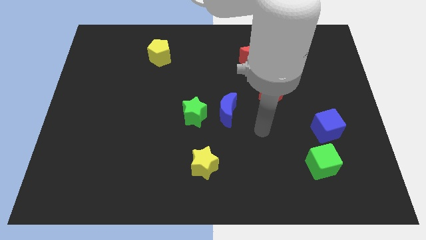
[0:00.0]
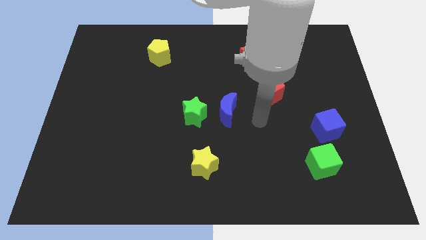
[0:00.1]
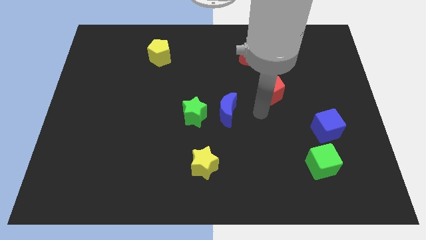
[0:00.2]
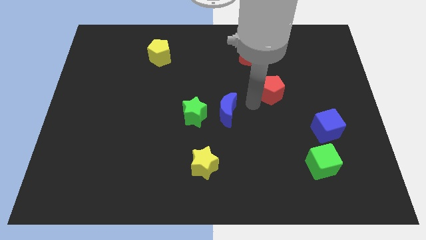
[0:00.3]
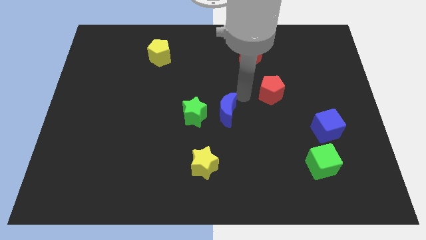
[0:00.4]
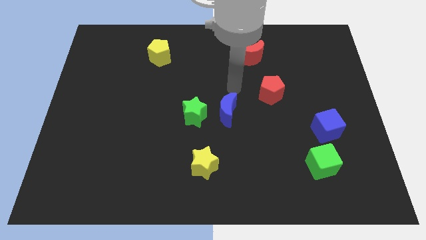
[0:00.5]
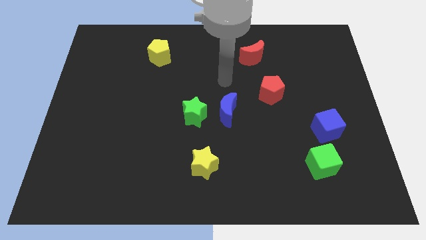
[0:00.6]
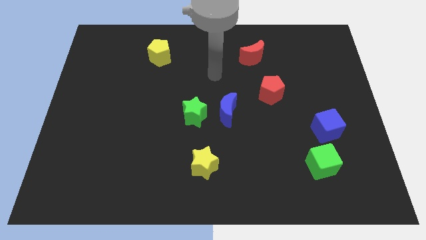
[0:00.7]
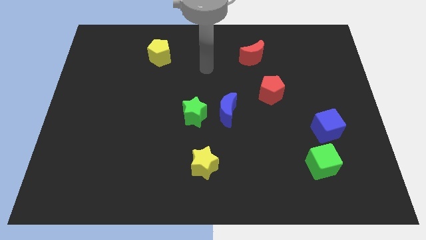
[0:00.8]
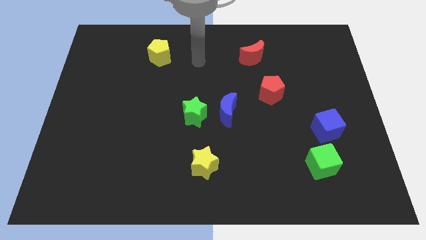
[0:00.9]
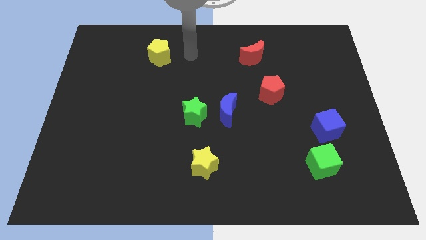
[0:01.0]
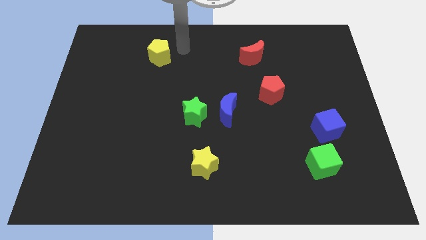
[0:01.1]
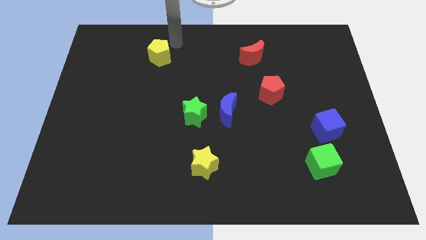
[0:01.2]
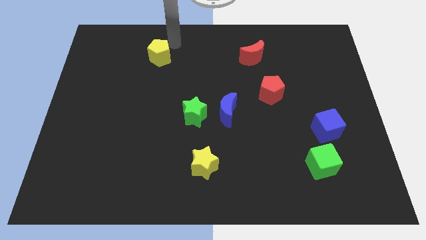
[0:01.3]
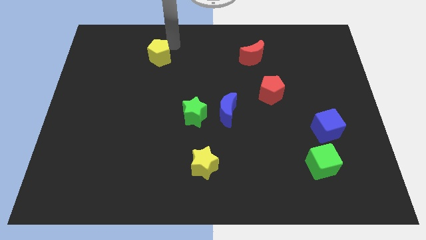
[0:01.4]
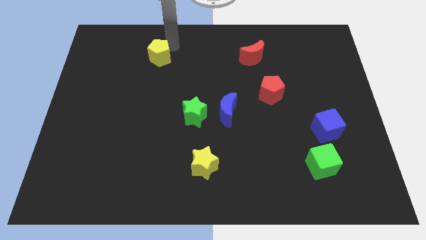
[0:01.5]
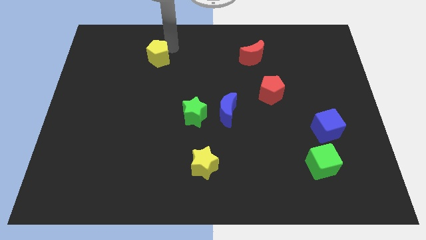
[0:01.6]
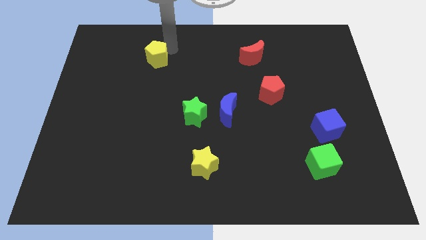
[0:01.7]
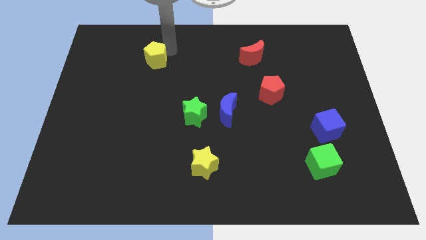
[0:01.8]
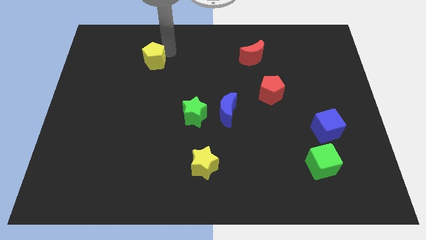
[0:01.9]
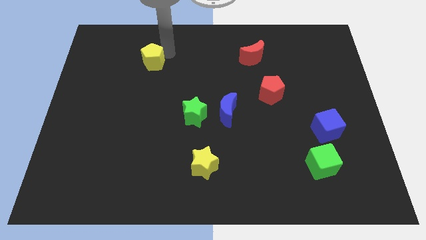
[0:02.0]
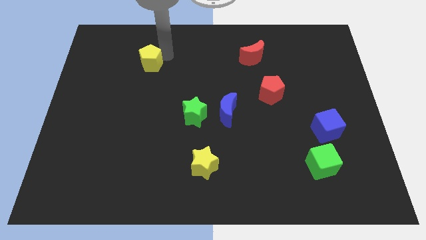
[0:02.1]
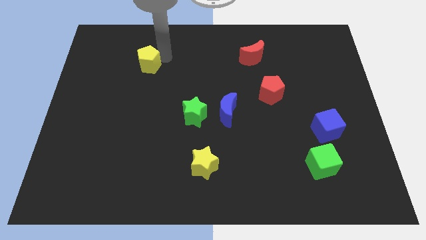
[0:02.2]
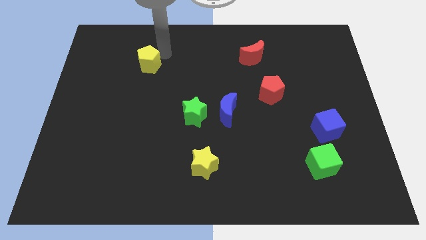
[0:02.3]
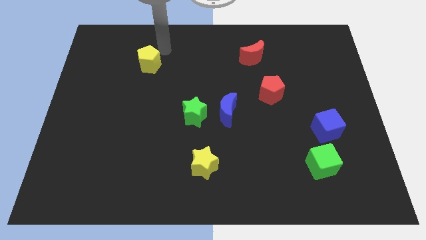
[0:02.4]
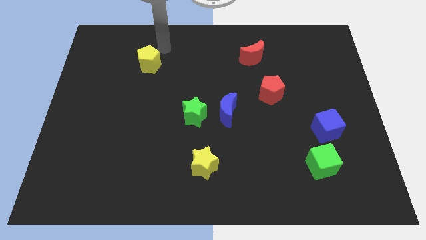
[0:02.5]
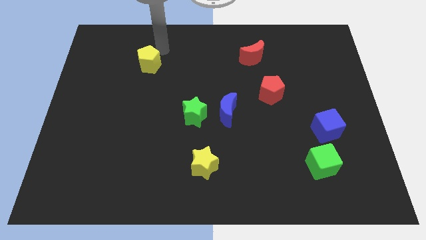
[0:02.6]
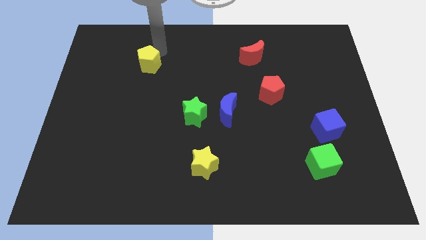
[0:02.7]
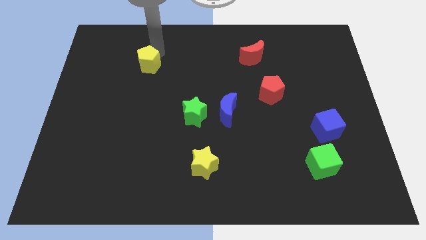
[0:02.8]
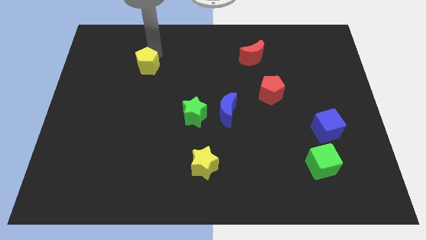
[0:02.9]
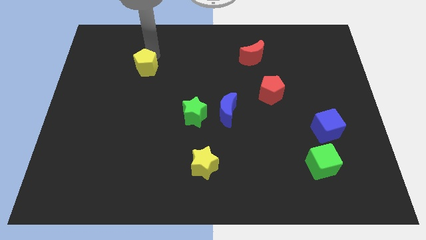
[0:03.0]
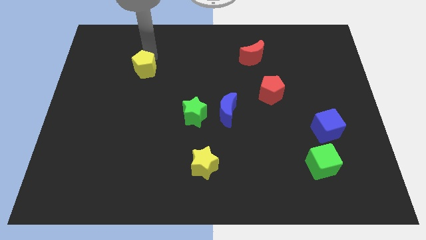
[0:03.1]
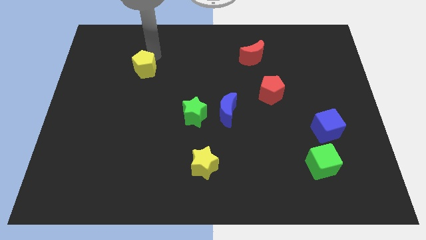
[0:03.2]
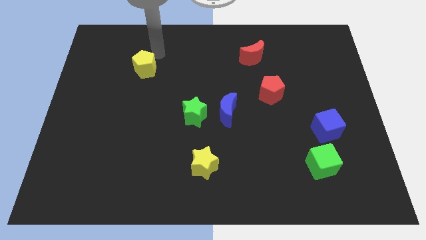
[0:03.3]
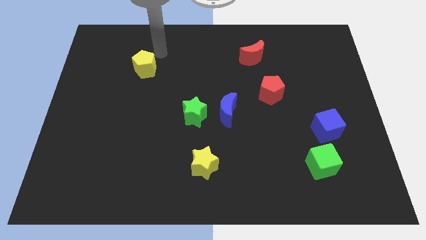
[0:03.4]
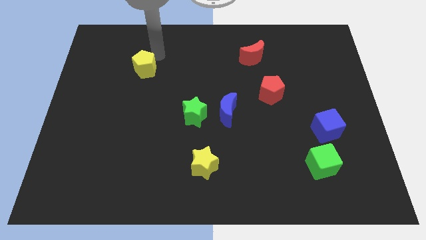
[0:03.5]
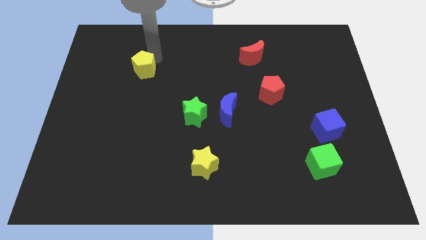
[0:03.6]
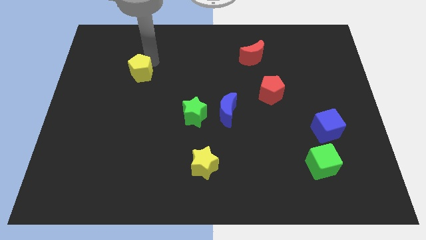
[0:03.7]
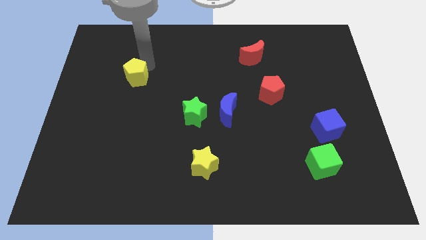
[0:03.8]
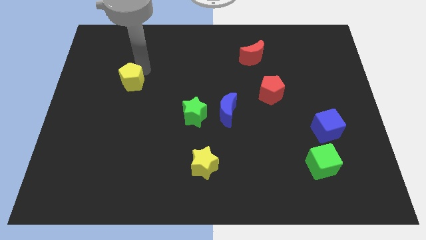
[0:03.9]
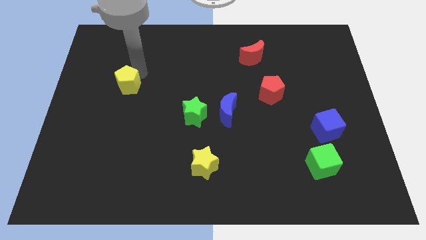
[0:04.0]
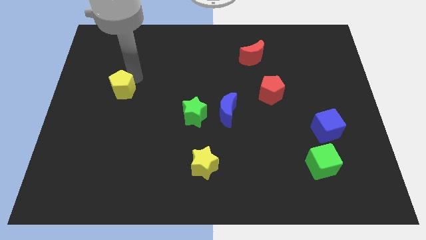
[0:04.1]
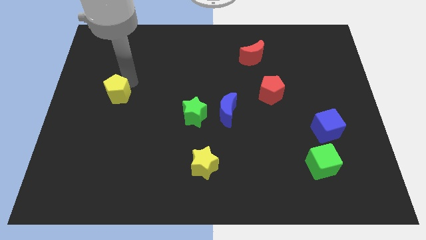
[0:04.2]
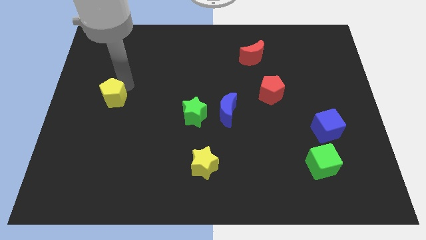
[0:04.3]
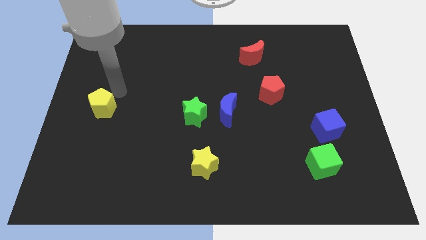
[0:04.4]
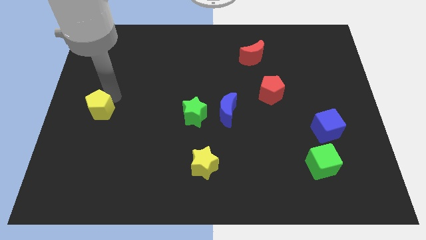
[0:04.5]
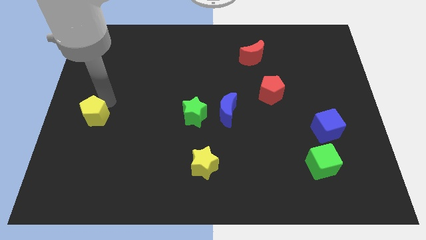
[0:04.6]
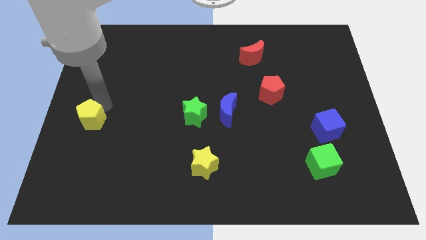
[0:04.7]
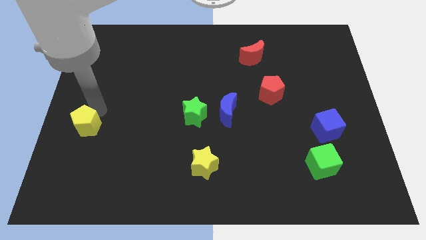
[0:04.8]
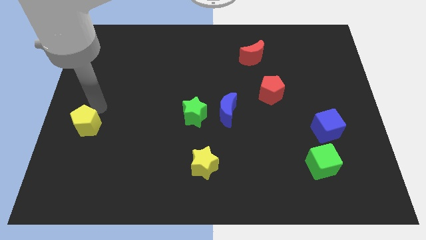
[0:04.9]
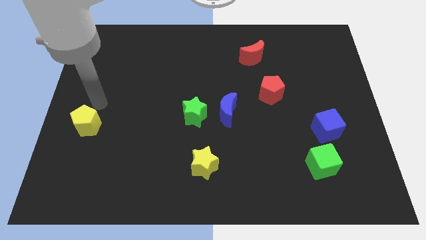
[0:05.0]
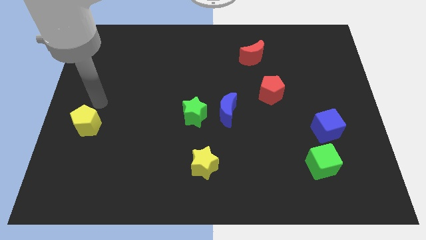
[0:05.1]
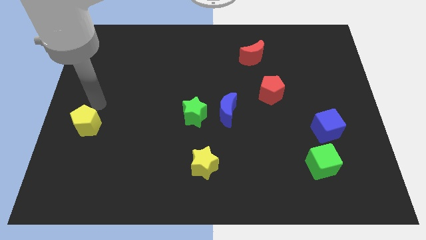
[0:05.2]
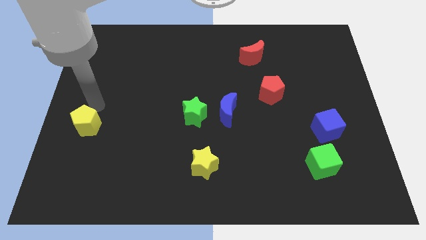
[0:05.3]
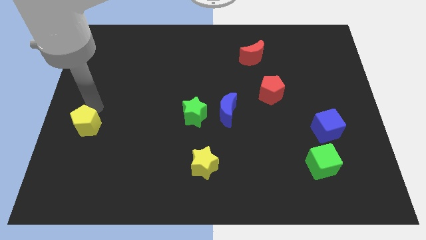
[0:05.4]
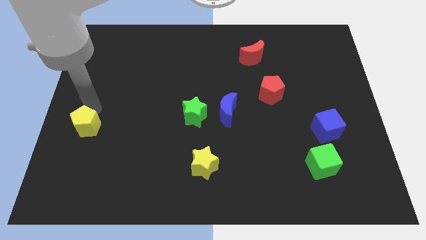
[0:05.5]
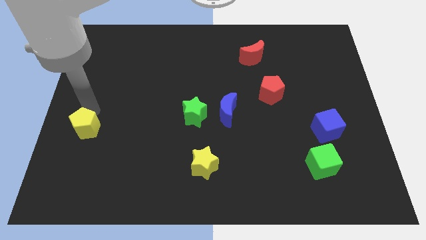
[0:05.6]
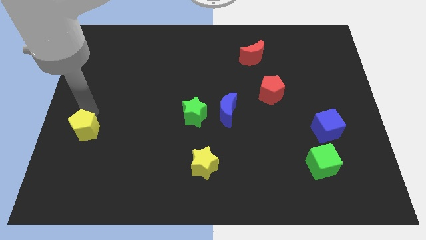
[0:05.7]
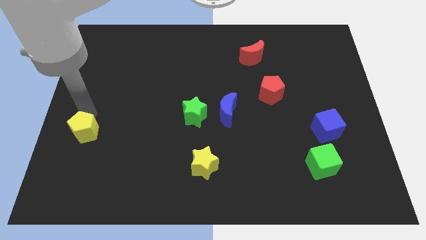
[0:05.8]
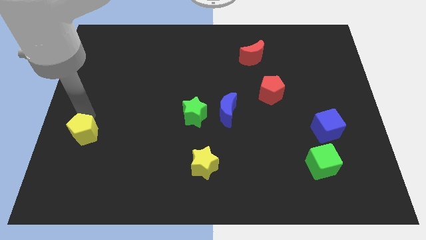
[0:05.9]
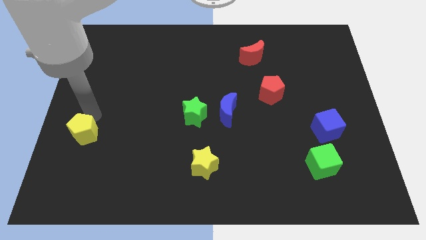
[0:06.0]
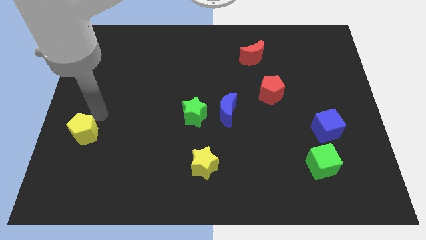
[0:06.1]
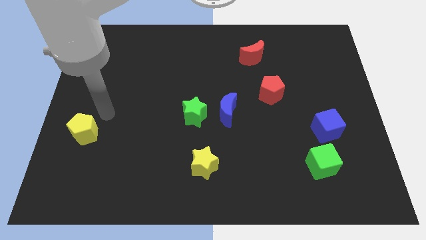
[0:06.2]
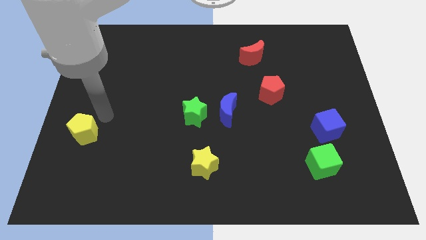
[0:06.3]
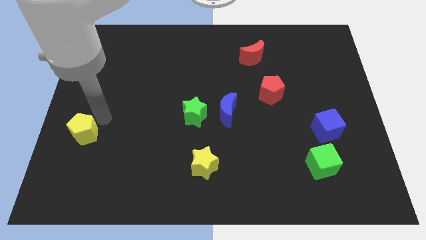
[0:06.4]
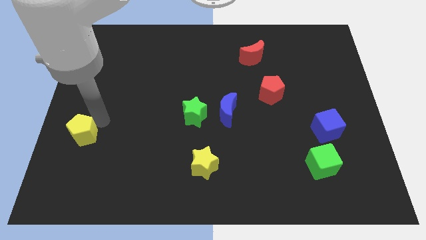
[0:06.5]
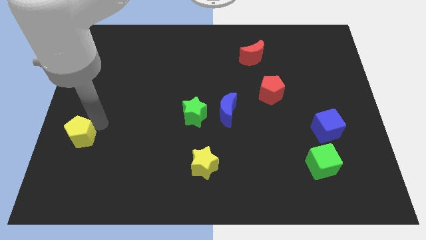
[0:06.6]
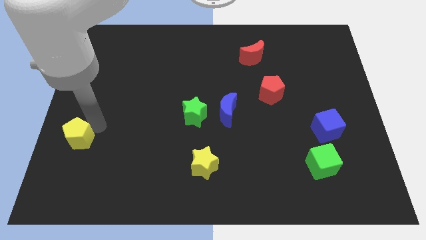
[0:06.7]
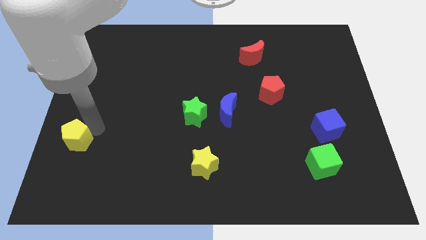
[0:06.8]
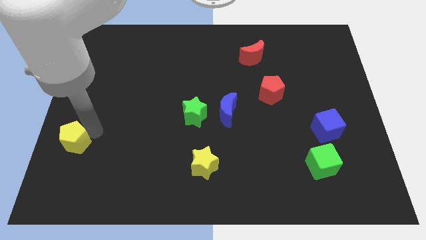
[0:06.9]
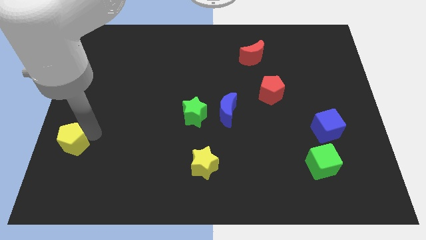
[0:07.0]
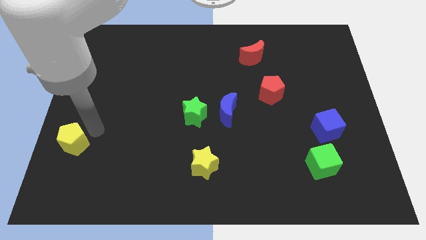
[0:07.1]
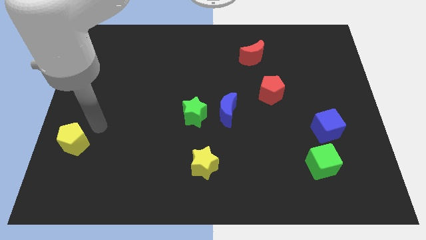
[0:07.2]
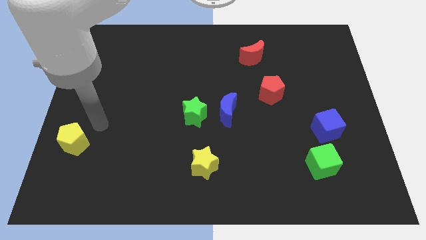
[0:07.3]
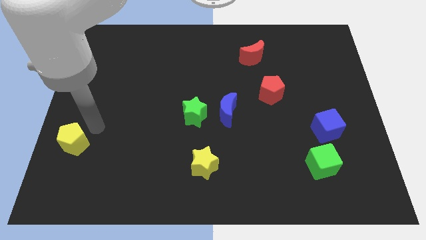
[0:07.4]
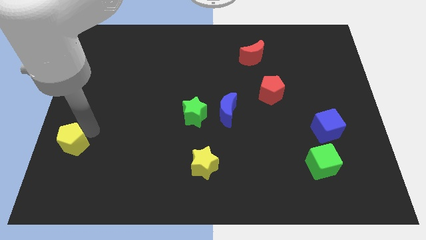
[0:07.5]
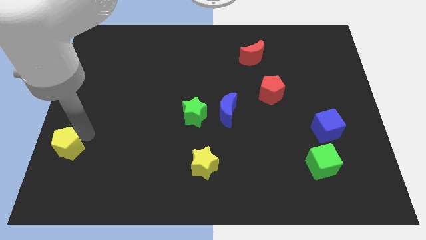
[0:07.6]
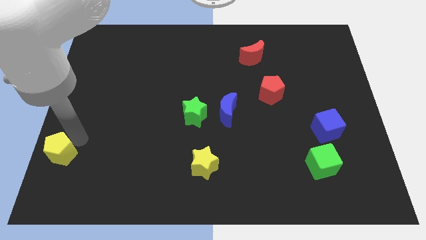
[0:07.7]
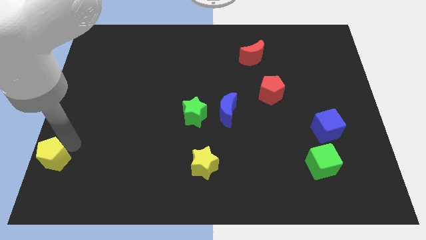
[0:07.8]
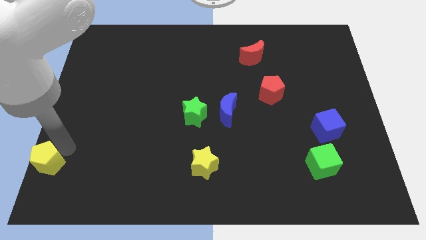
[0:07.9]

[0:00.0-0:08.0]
move the yellow pentagon to the bottom left corner
